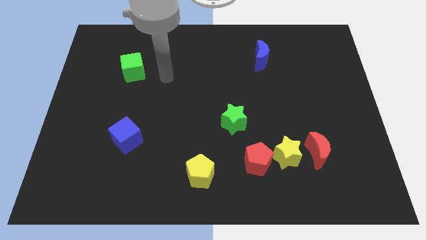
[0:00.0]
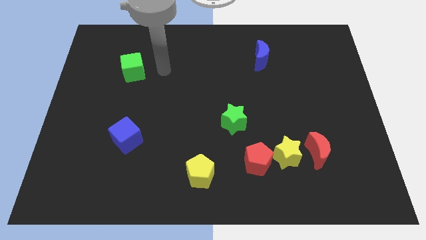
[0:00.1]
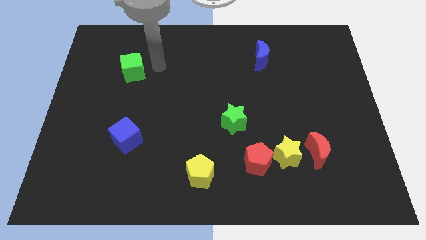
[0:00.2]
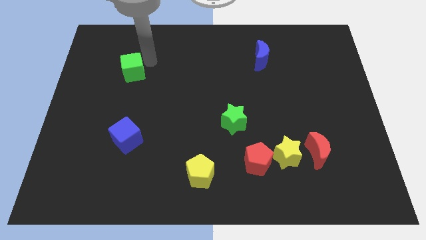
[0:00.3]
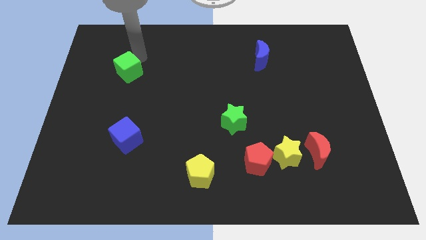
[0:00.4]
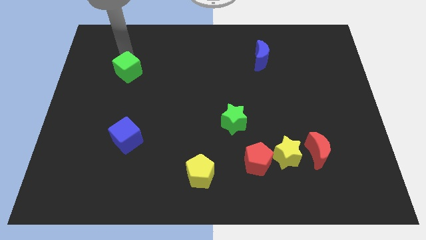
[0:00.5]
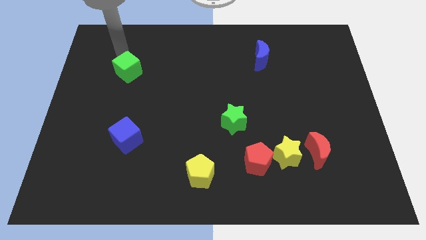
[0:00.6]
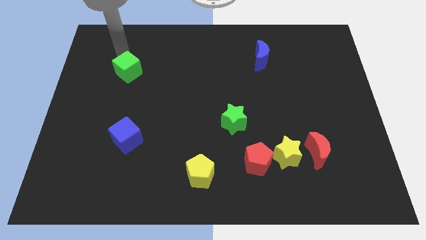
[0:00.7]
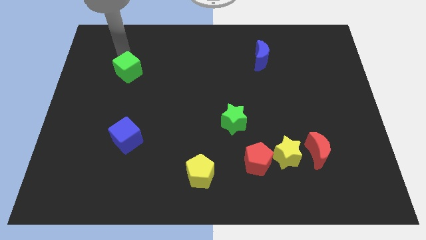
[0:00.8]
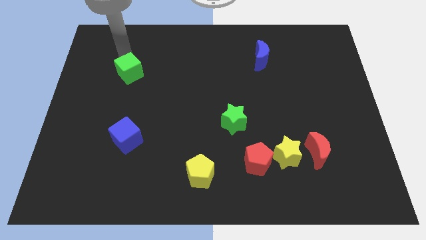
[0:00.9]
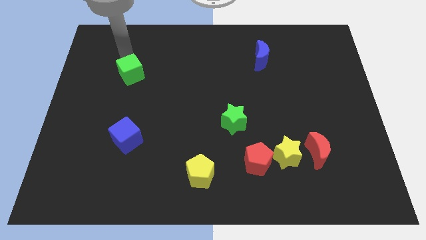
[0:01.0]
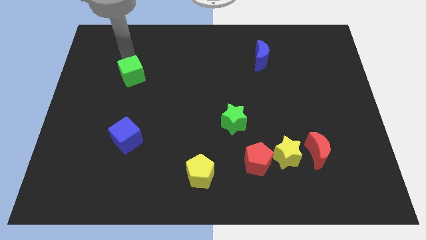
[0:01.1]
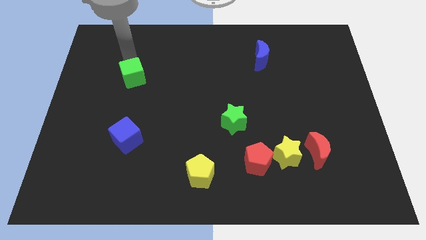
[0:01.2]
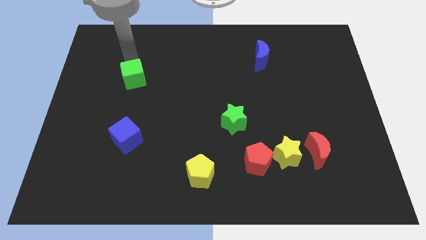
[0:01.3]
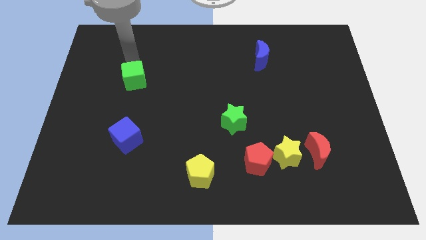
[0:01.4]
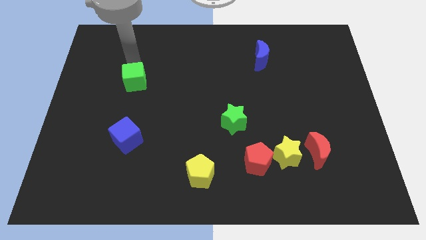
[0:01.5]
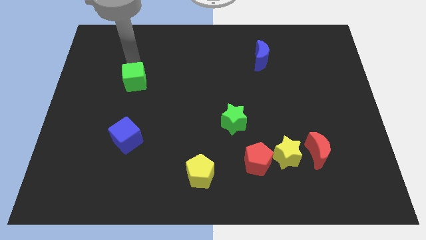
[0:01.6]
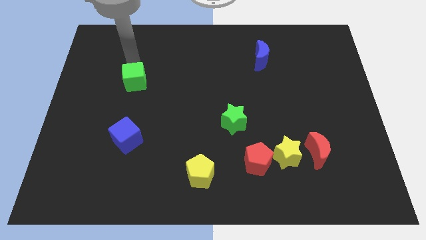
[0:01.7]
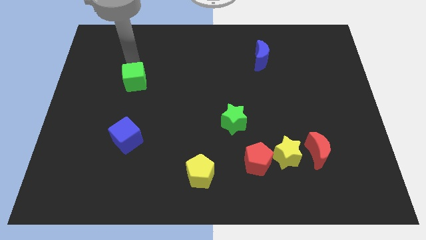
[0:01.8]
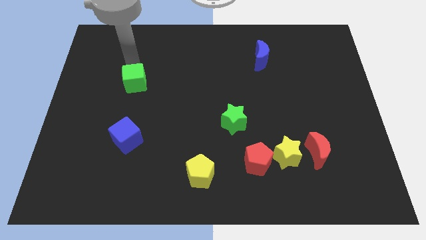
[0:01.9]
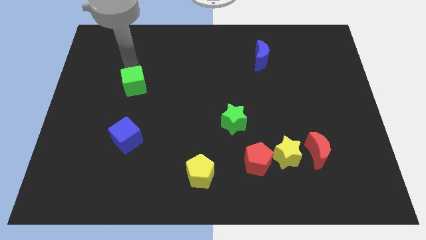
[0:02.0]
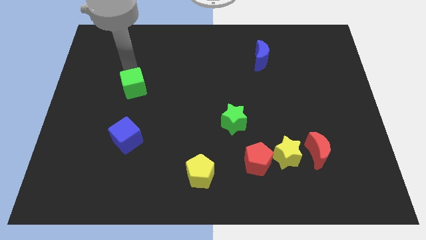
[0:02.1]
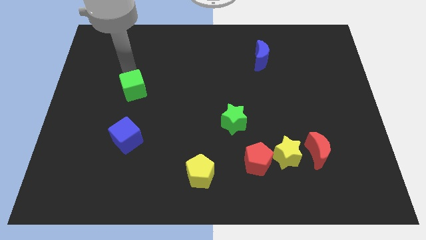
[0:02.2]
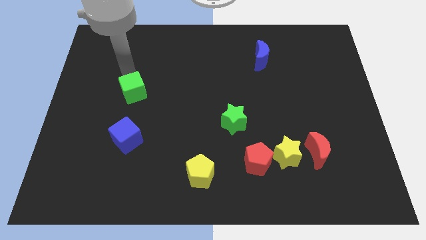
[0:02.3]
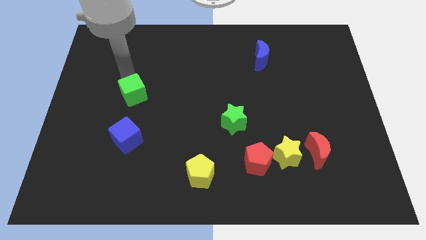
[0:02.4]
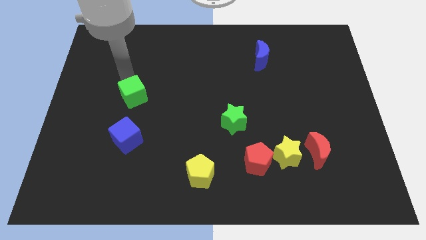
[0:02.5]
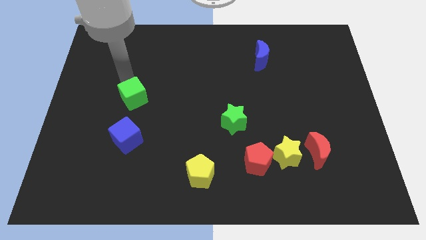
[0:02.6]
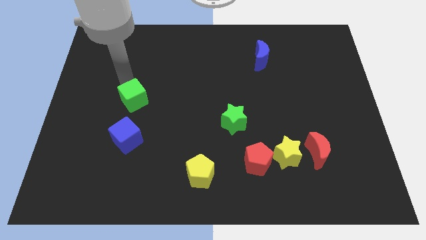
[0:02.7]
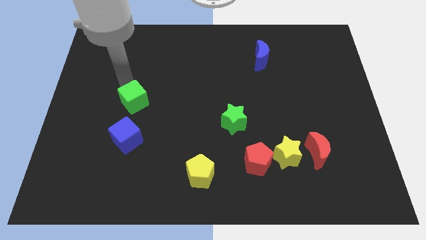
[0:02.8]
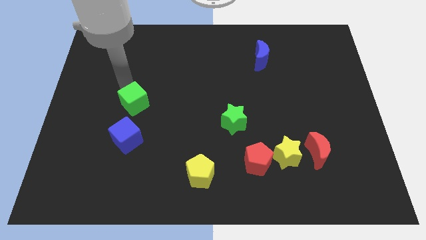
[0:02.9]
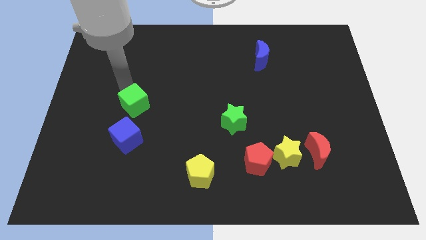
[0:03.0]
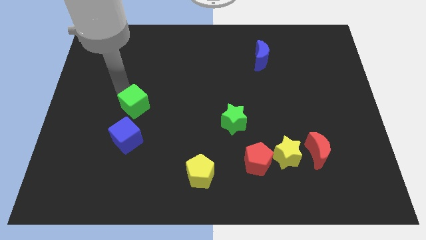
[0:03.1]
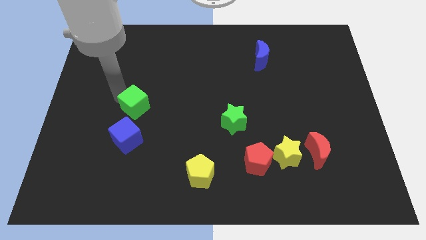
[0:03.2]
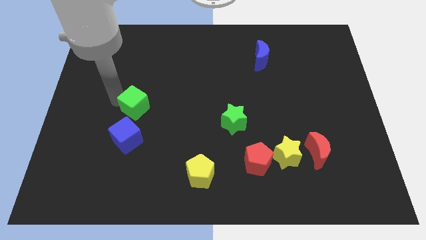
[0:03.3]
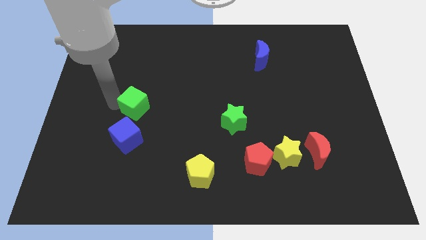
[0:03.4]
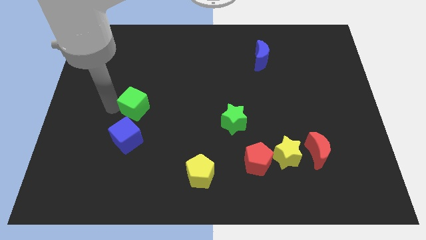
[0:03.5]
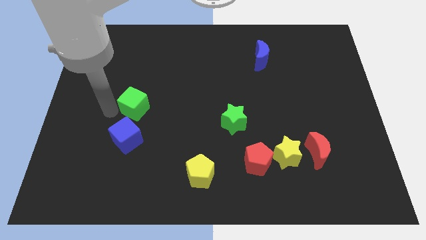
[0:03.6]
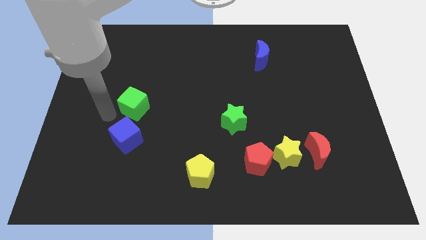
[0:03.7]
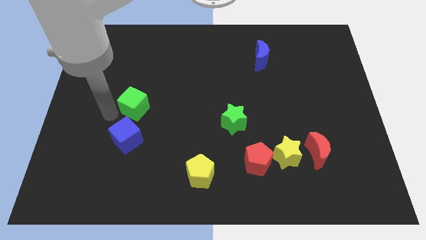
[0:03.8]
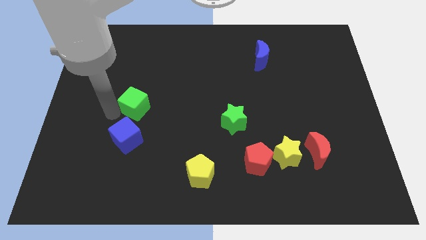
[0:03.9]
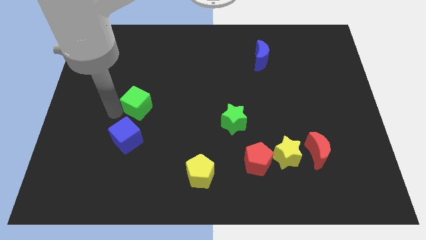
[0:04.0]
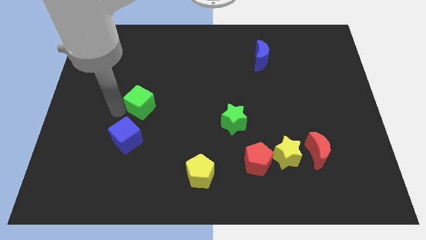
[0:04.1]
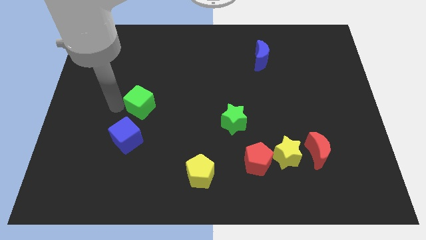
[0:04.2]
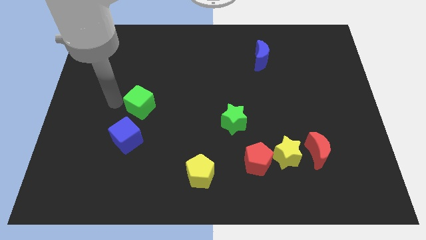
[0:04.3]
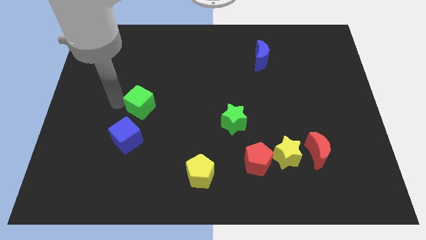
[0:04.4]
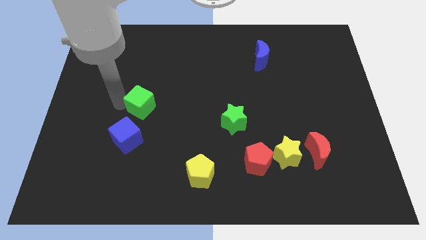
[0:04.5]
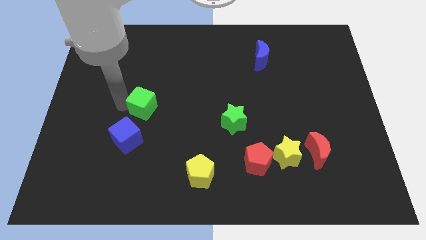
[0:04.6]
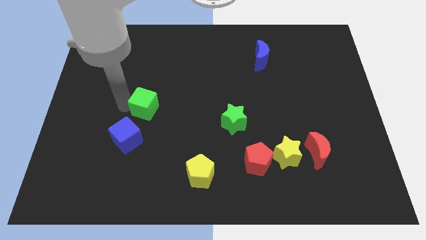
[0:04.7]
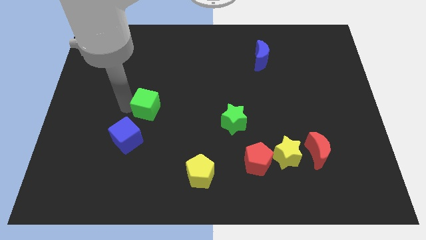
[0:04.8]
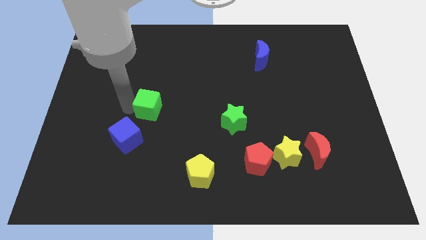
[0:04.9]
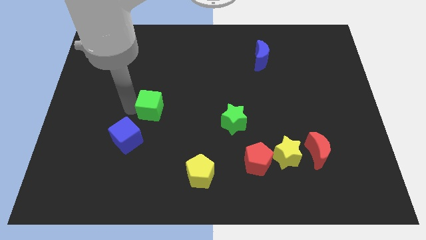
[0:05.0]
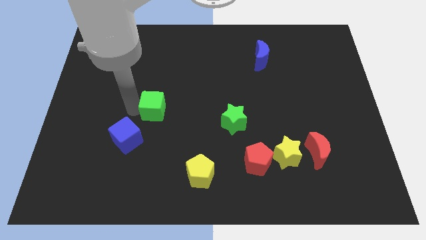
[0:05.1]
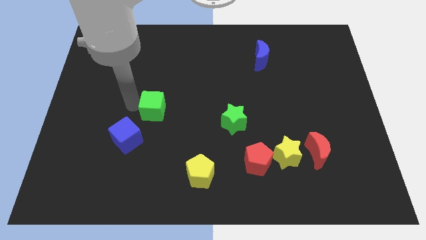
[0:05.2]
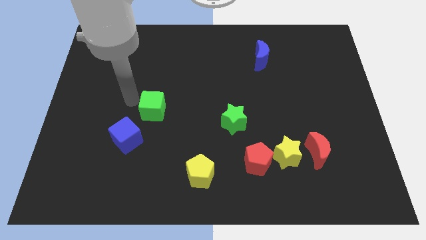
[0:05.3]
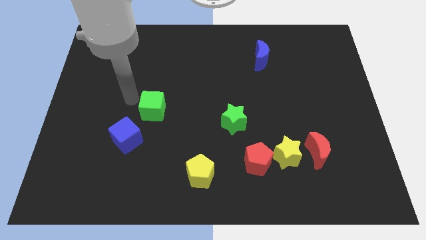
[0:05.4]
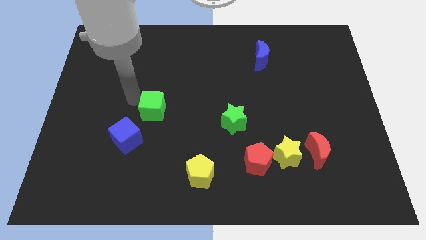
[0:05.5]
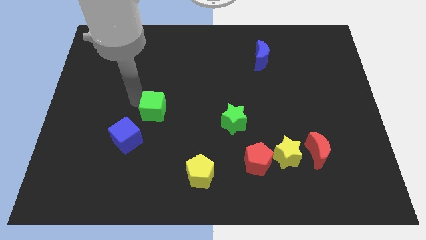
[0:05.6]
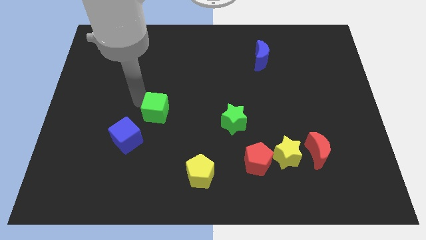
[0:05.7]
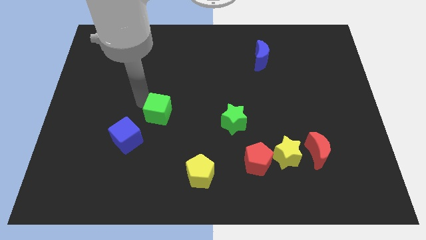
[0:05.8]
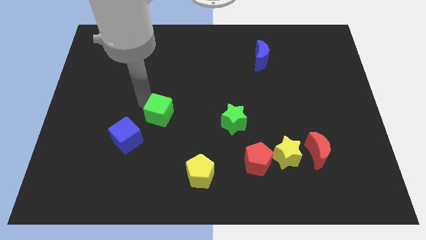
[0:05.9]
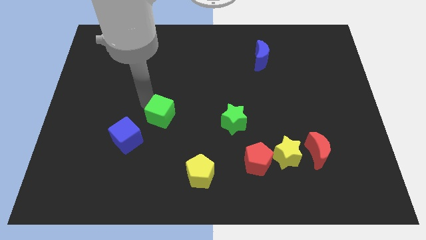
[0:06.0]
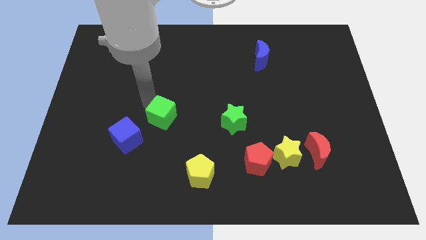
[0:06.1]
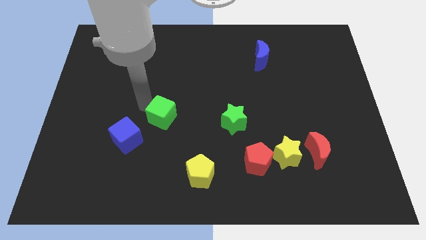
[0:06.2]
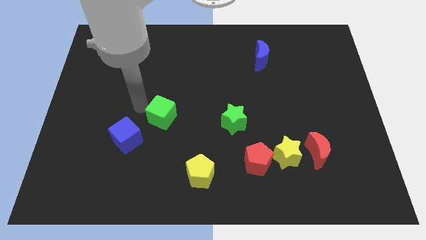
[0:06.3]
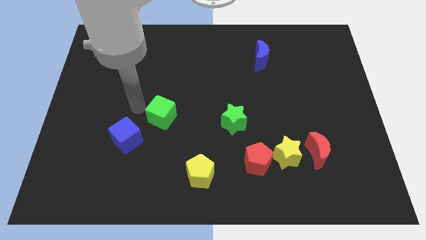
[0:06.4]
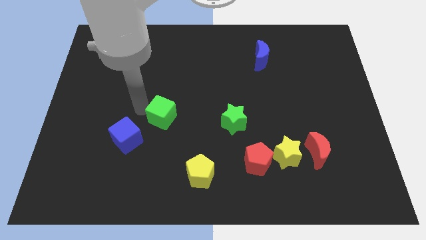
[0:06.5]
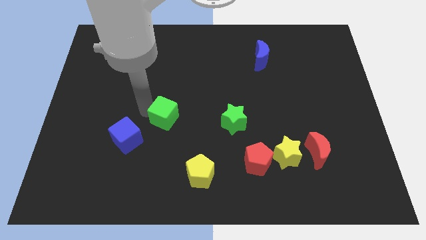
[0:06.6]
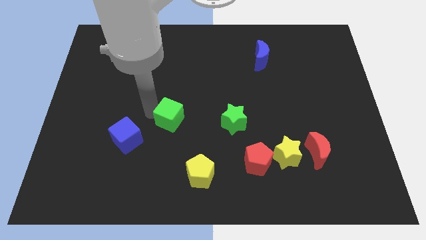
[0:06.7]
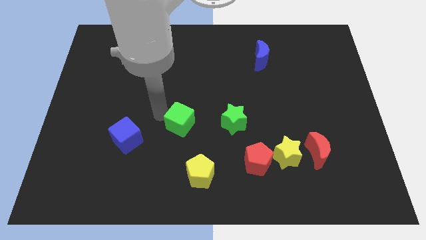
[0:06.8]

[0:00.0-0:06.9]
slide the green cube diagonally down and to the right

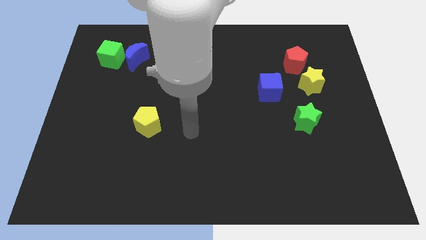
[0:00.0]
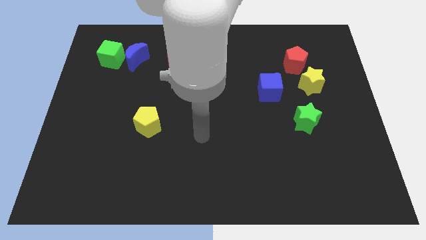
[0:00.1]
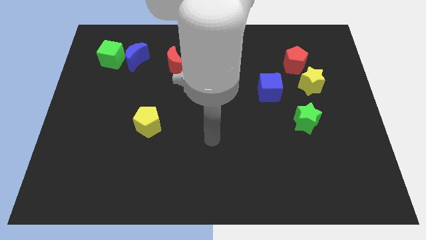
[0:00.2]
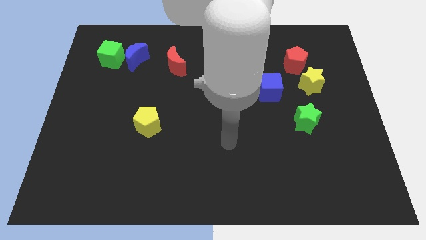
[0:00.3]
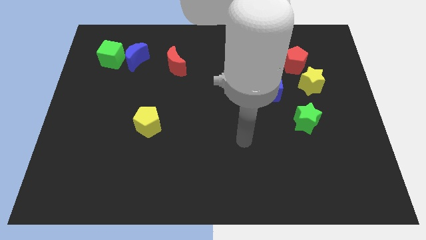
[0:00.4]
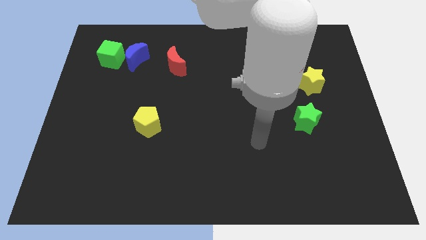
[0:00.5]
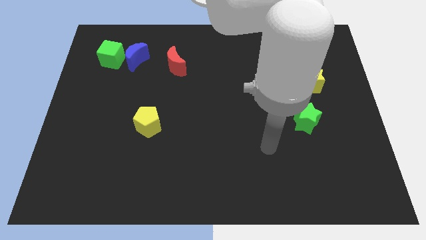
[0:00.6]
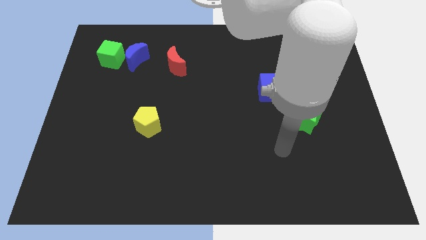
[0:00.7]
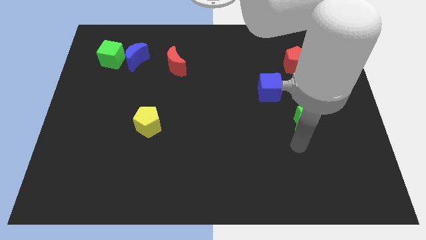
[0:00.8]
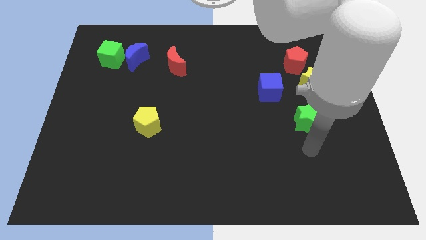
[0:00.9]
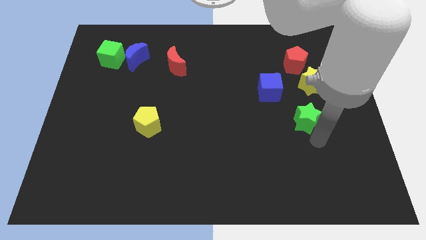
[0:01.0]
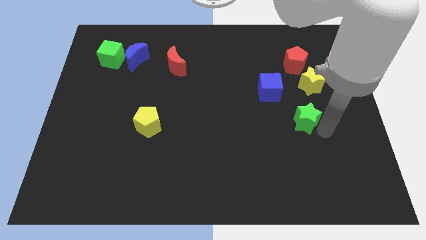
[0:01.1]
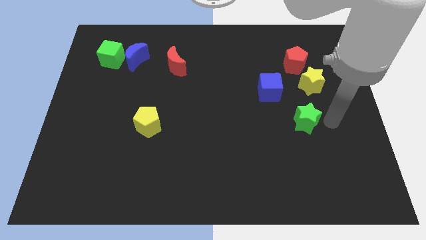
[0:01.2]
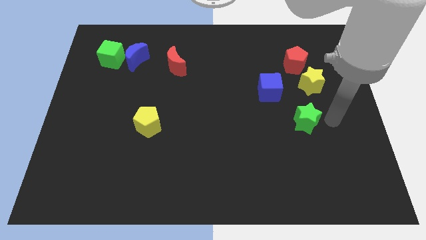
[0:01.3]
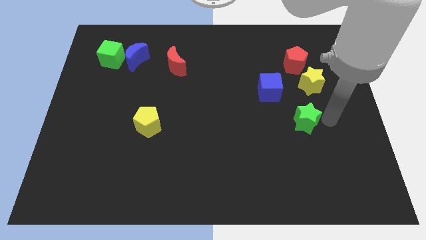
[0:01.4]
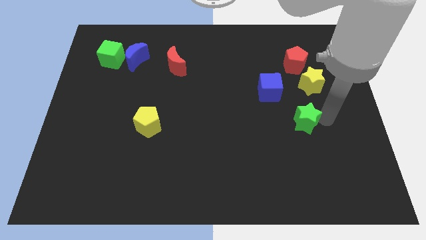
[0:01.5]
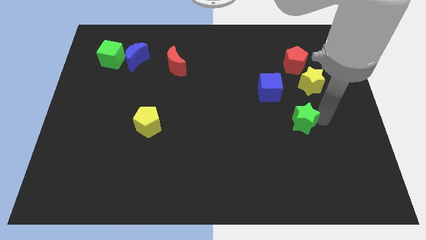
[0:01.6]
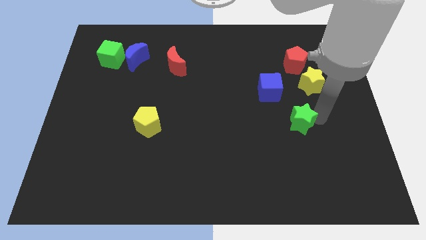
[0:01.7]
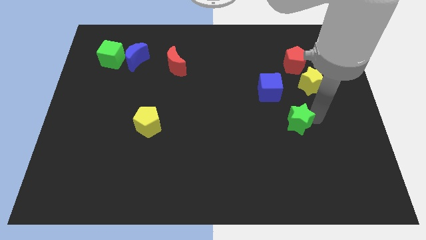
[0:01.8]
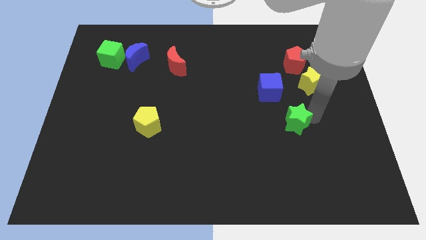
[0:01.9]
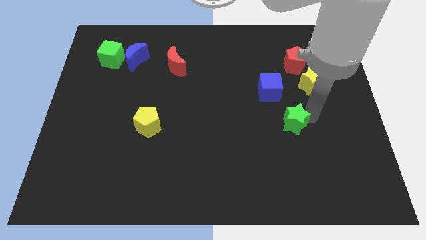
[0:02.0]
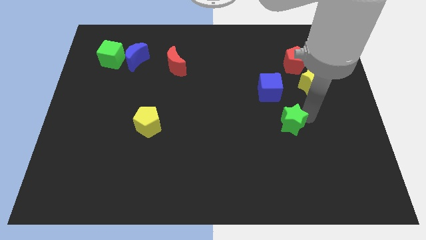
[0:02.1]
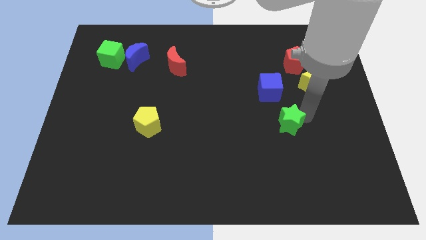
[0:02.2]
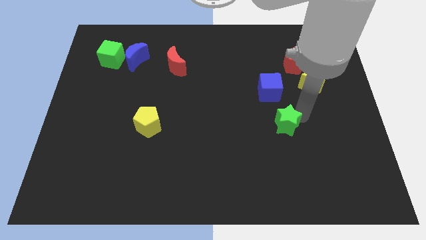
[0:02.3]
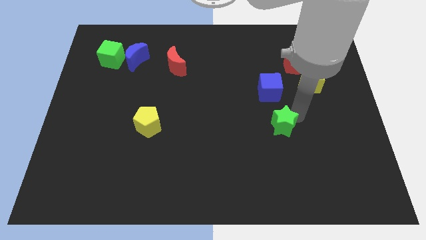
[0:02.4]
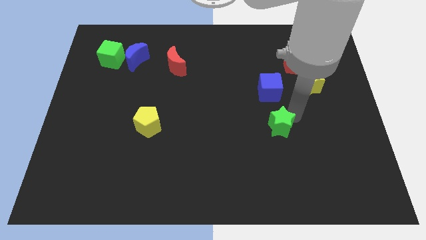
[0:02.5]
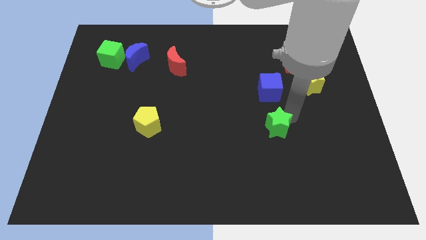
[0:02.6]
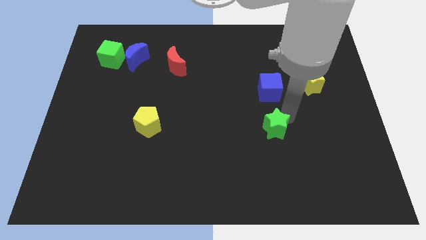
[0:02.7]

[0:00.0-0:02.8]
move the green star to the left somewhat
